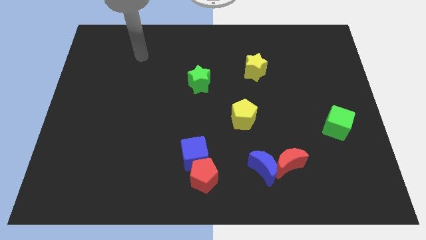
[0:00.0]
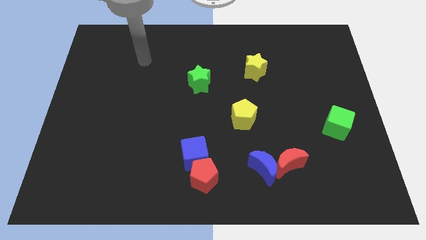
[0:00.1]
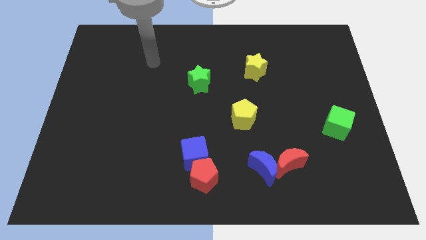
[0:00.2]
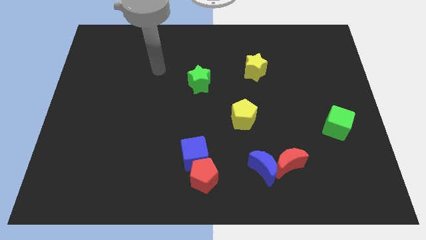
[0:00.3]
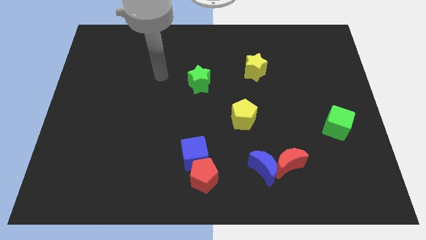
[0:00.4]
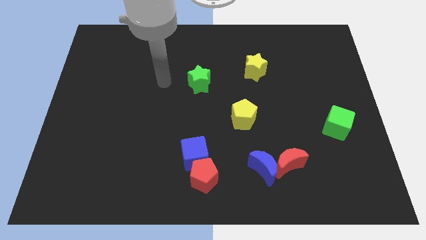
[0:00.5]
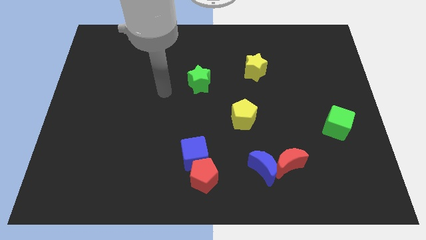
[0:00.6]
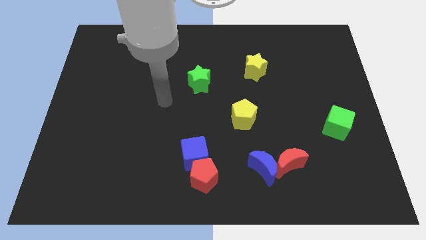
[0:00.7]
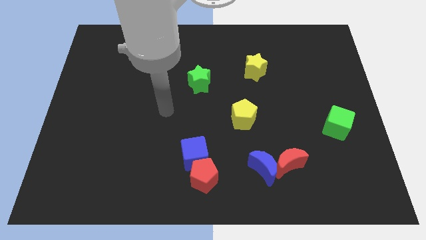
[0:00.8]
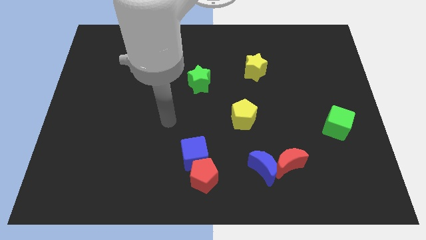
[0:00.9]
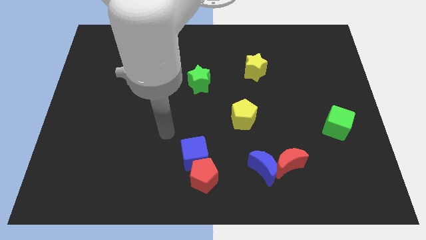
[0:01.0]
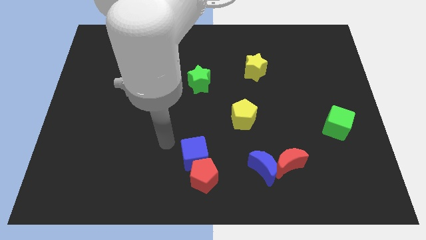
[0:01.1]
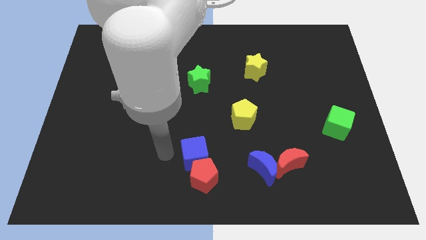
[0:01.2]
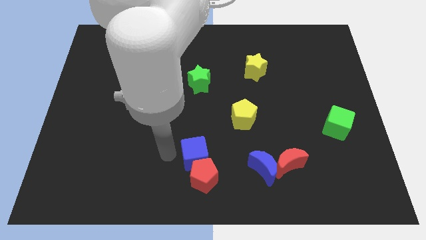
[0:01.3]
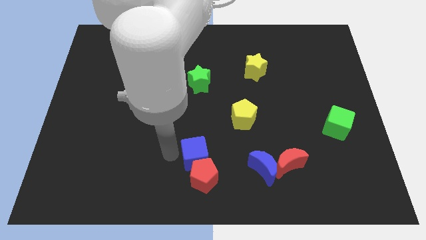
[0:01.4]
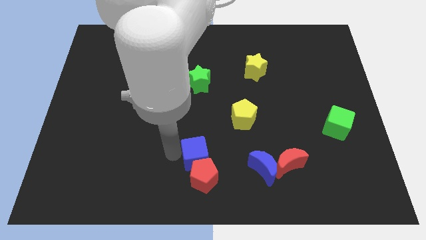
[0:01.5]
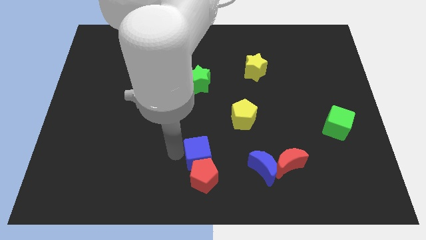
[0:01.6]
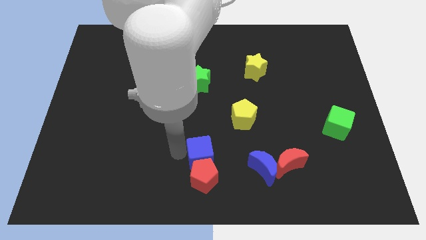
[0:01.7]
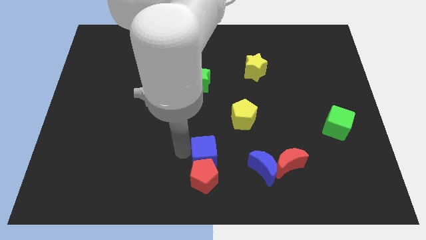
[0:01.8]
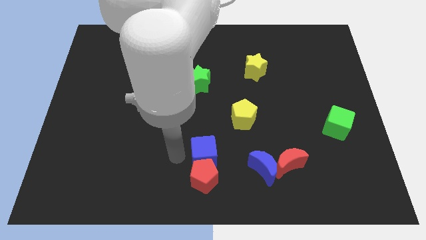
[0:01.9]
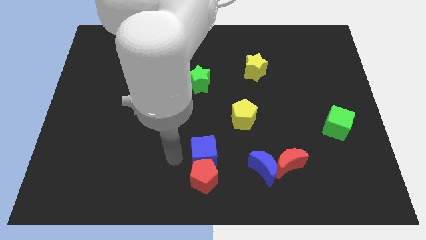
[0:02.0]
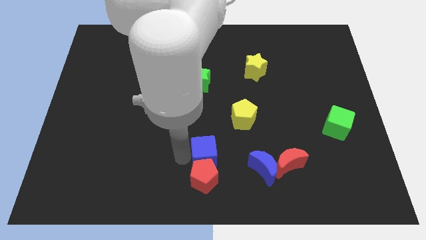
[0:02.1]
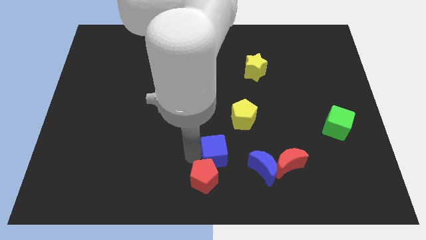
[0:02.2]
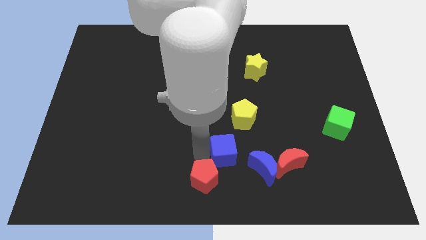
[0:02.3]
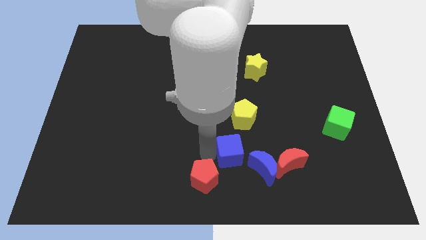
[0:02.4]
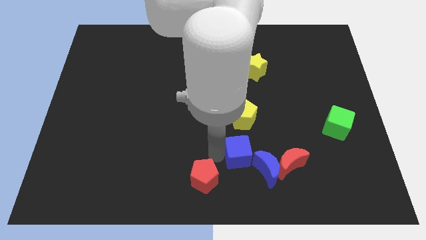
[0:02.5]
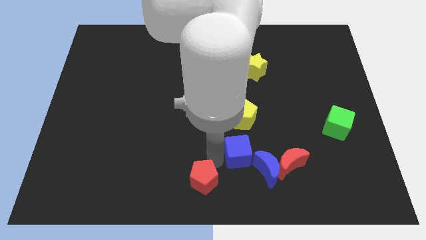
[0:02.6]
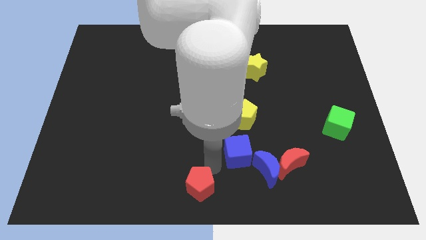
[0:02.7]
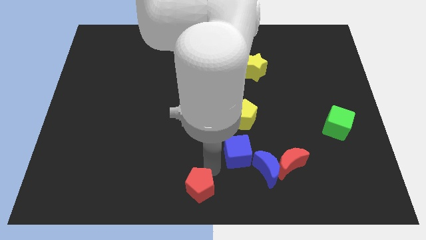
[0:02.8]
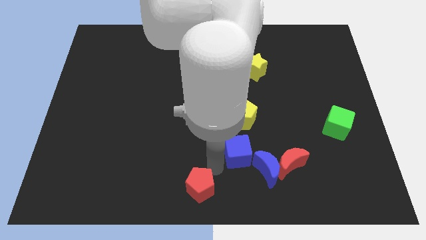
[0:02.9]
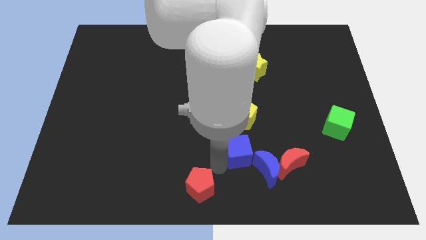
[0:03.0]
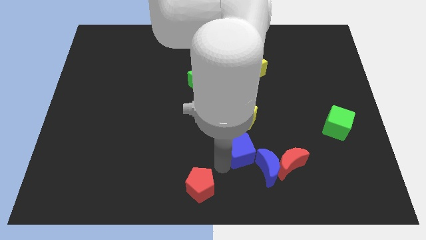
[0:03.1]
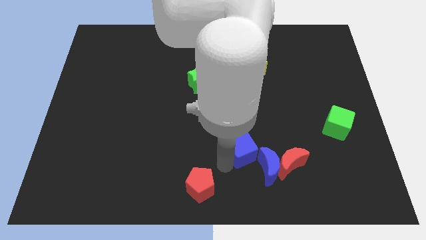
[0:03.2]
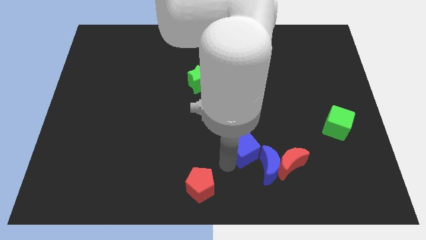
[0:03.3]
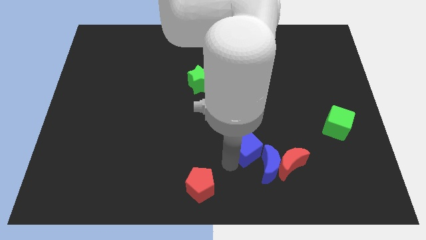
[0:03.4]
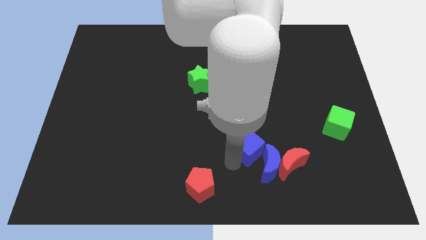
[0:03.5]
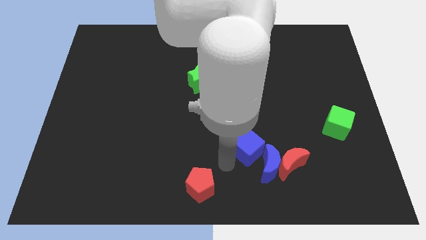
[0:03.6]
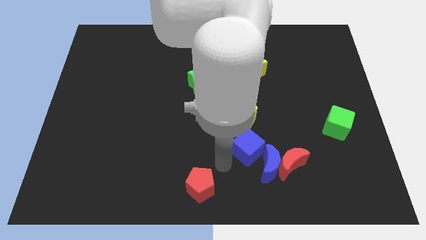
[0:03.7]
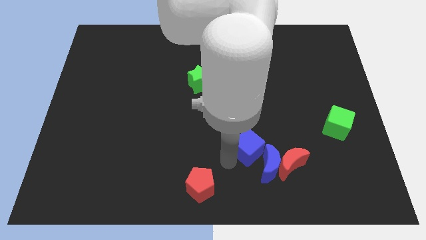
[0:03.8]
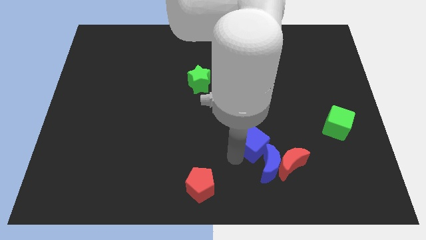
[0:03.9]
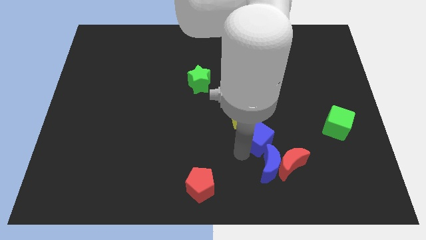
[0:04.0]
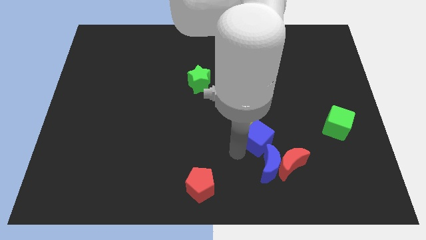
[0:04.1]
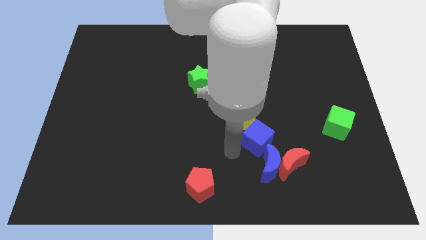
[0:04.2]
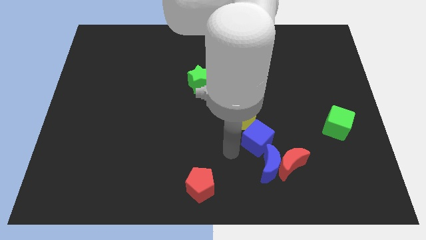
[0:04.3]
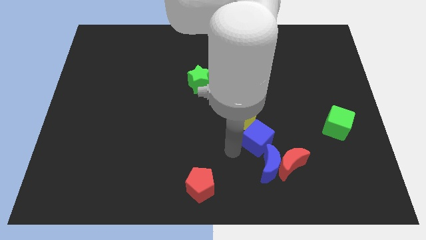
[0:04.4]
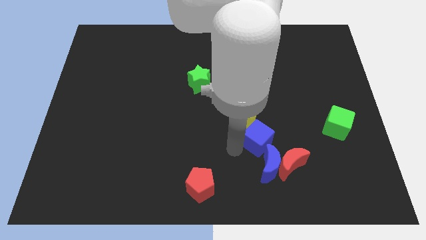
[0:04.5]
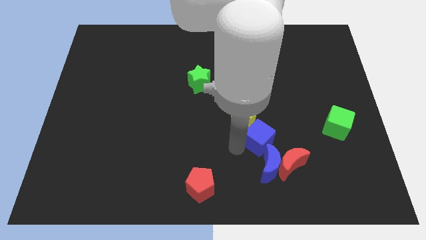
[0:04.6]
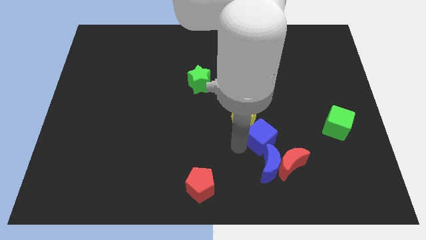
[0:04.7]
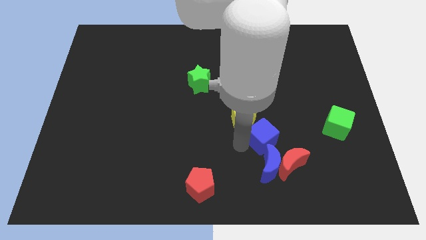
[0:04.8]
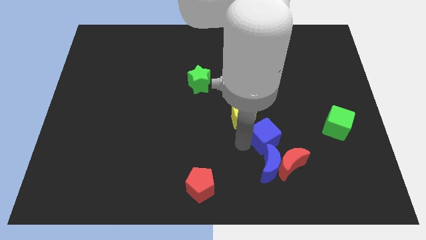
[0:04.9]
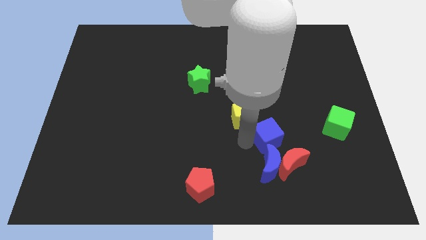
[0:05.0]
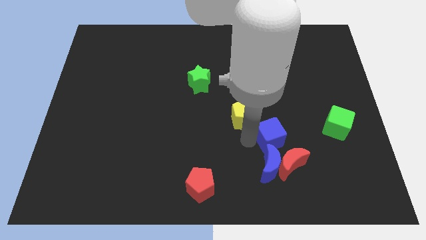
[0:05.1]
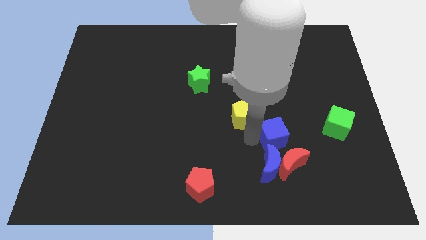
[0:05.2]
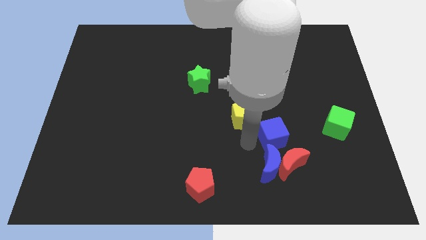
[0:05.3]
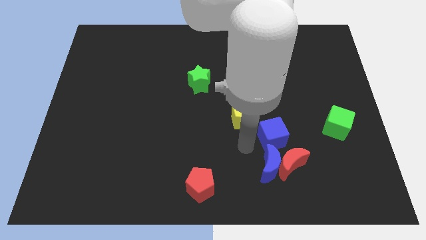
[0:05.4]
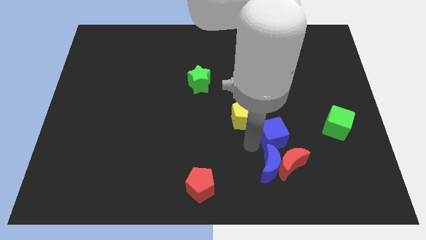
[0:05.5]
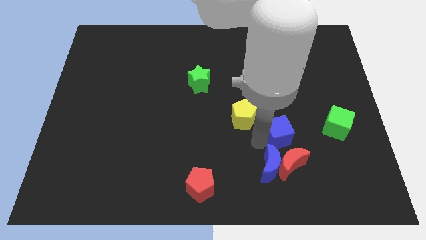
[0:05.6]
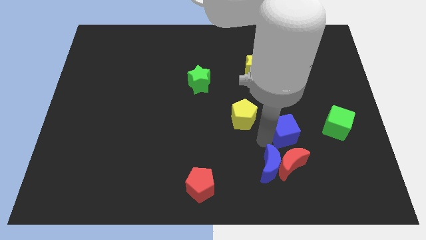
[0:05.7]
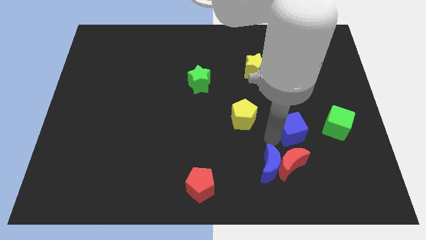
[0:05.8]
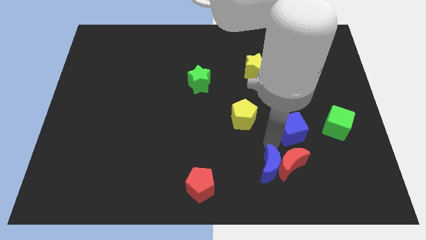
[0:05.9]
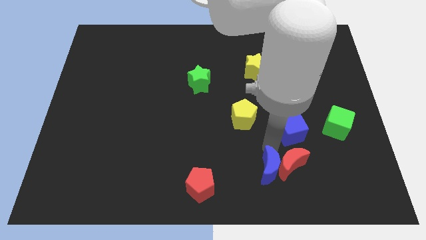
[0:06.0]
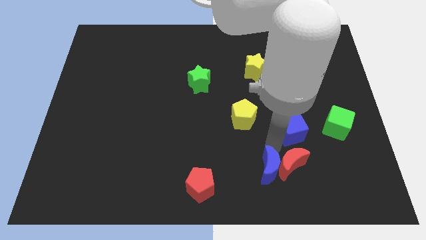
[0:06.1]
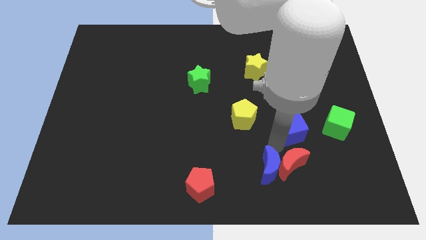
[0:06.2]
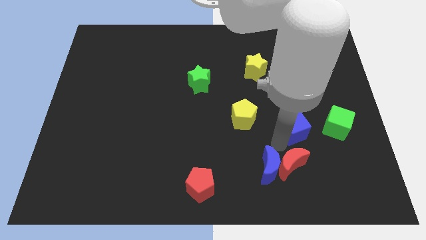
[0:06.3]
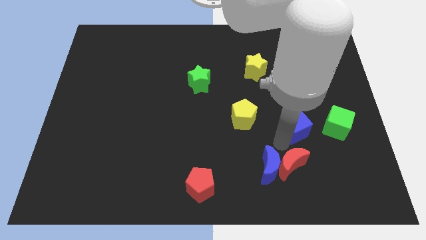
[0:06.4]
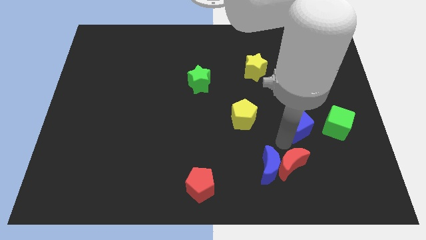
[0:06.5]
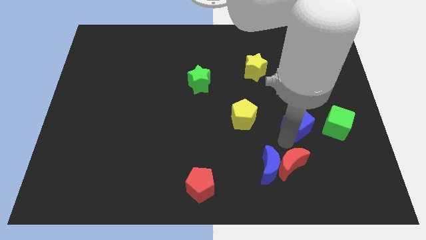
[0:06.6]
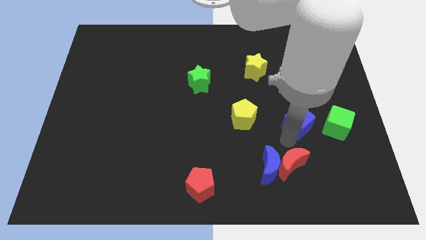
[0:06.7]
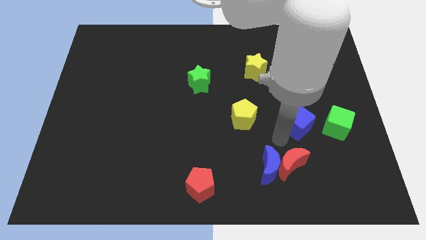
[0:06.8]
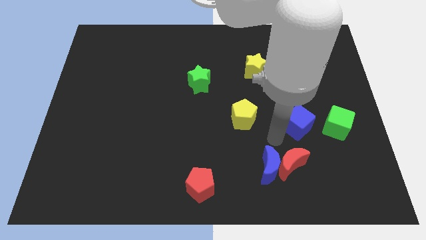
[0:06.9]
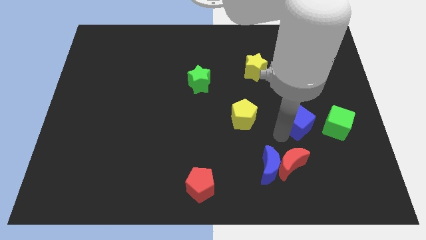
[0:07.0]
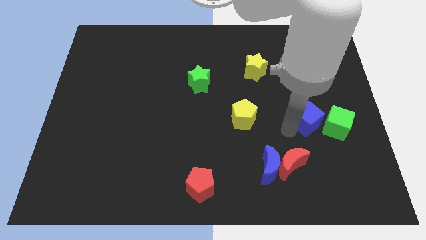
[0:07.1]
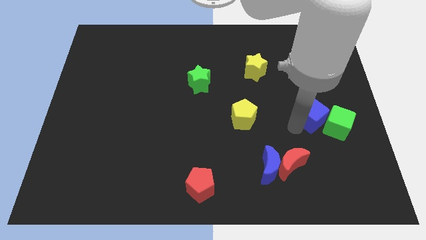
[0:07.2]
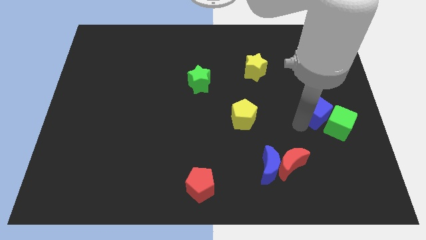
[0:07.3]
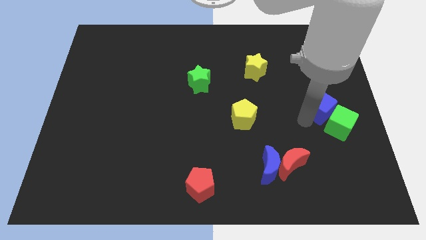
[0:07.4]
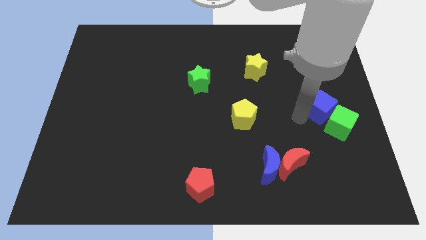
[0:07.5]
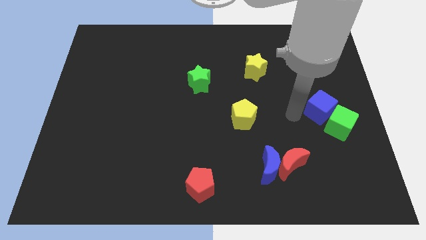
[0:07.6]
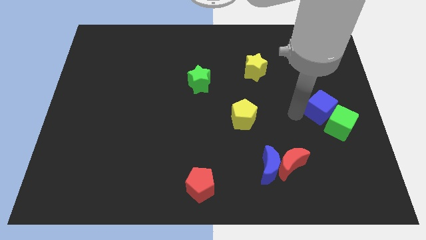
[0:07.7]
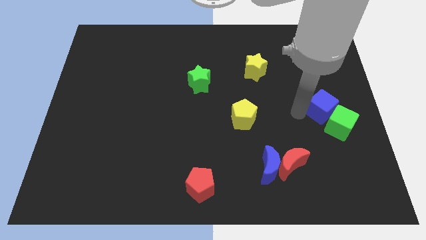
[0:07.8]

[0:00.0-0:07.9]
put the blue cube to the center right
